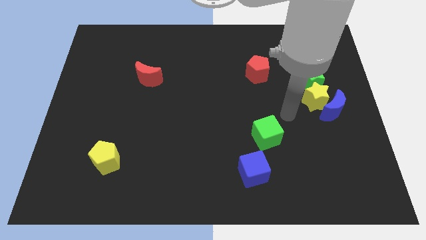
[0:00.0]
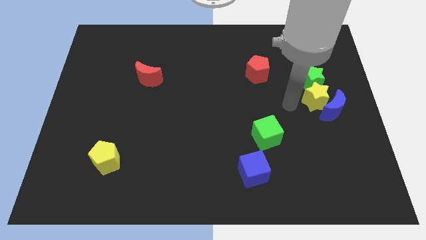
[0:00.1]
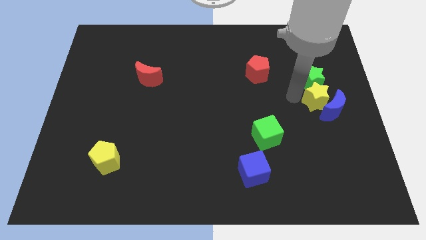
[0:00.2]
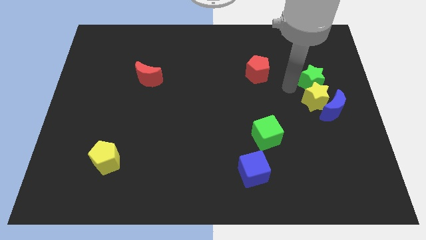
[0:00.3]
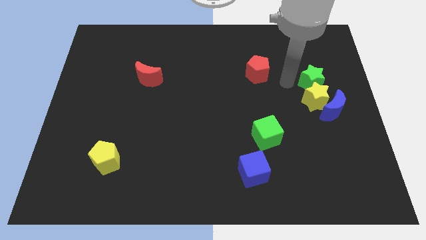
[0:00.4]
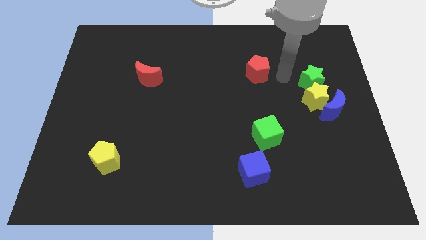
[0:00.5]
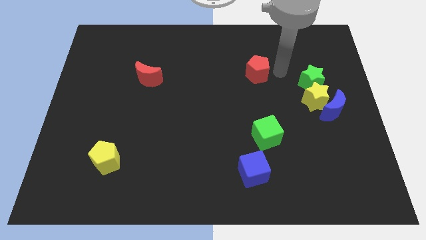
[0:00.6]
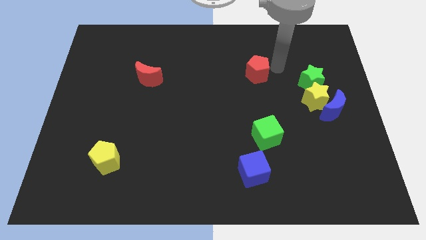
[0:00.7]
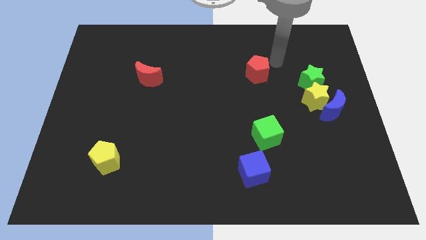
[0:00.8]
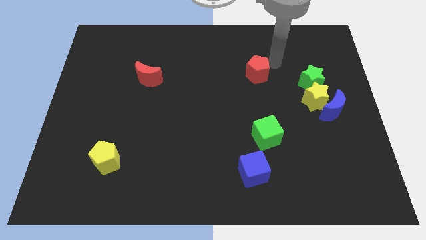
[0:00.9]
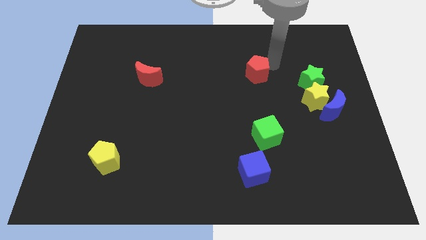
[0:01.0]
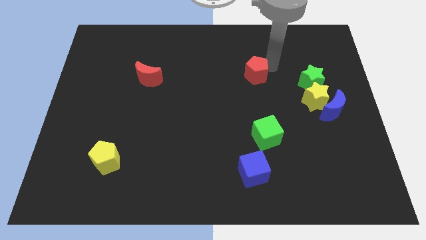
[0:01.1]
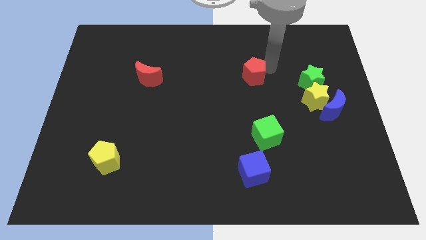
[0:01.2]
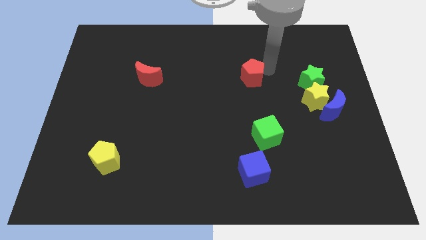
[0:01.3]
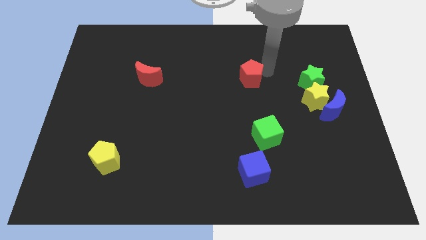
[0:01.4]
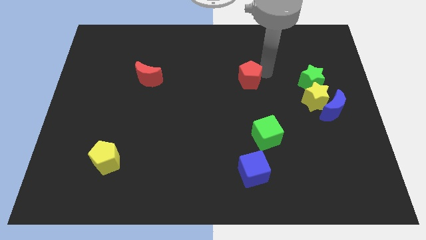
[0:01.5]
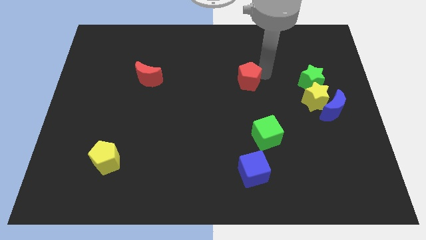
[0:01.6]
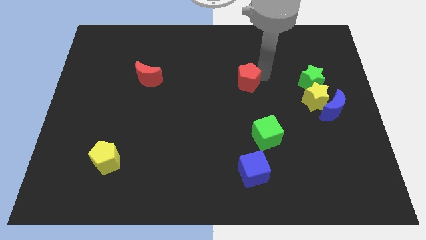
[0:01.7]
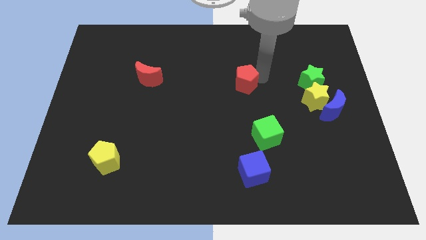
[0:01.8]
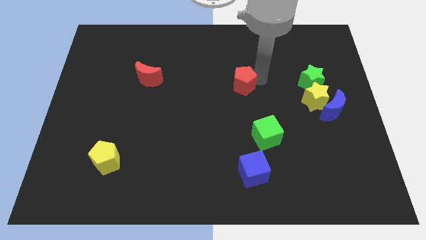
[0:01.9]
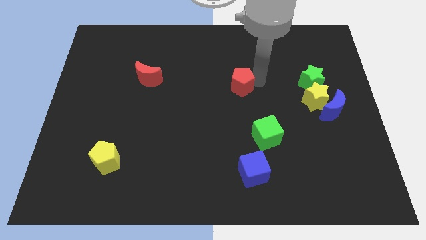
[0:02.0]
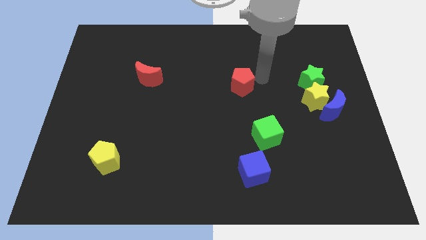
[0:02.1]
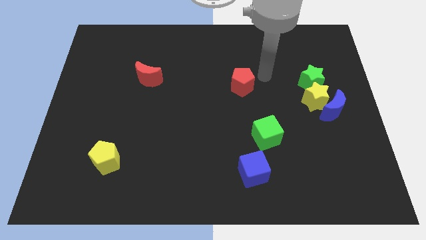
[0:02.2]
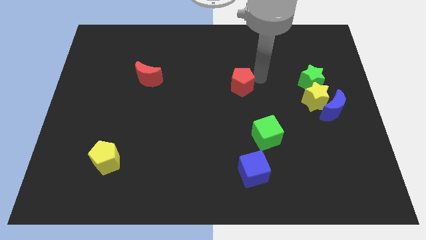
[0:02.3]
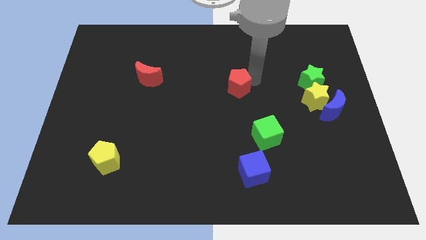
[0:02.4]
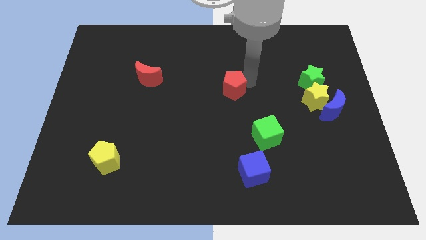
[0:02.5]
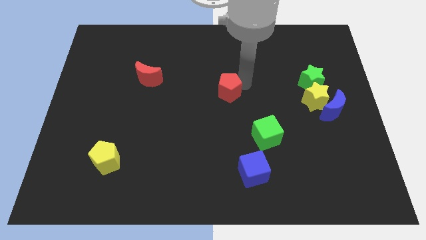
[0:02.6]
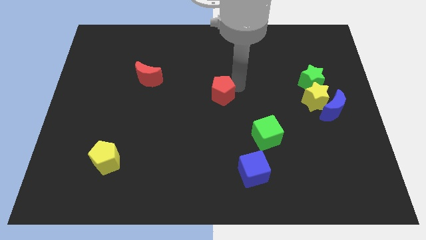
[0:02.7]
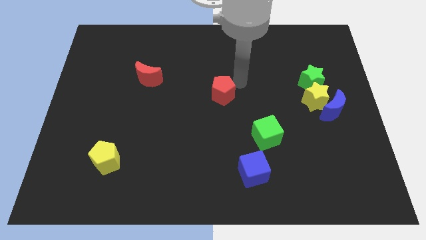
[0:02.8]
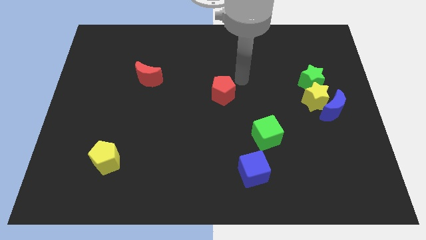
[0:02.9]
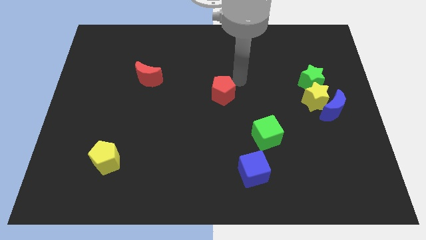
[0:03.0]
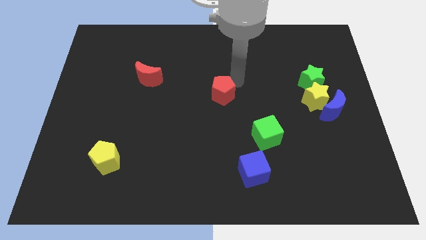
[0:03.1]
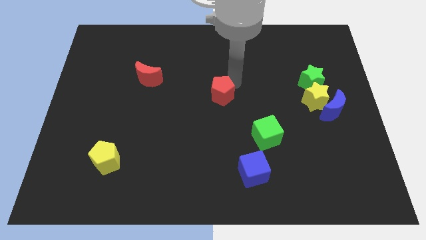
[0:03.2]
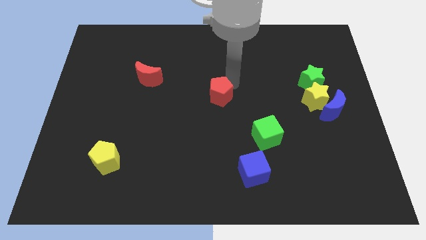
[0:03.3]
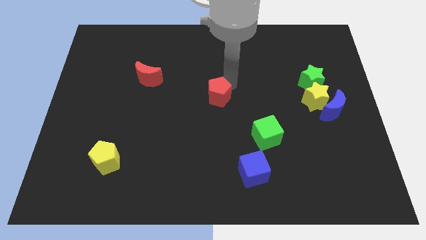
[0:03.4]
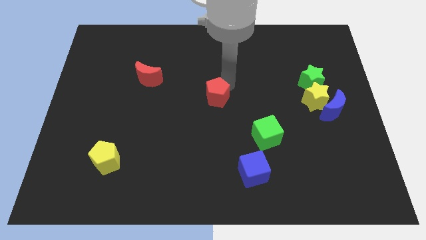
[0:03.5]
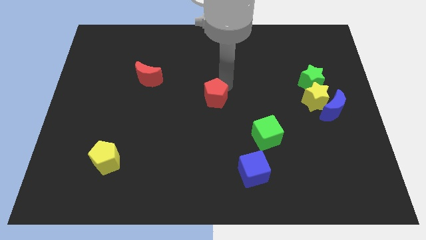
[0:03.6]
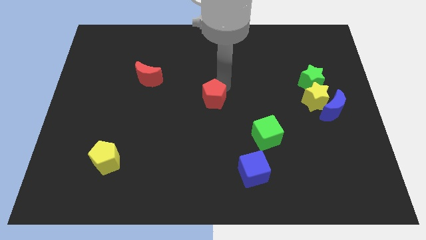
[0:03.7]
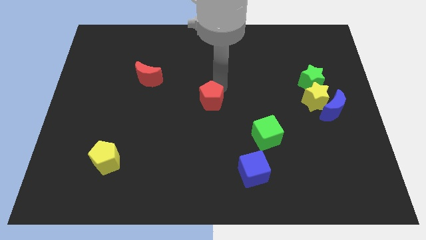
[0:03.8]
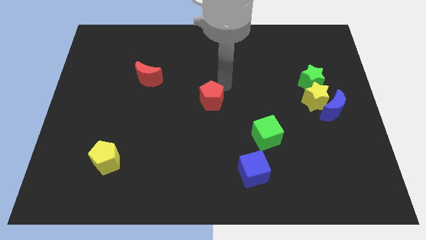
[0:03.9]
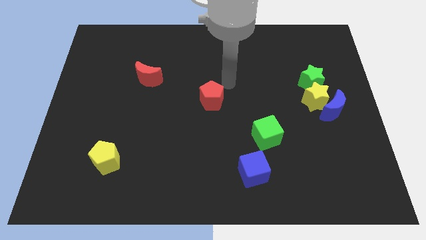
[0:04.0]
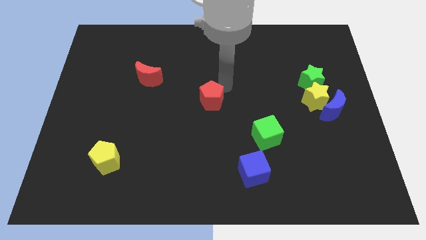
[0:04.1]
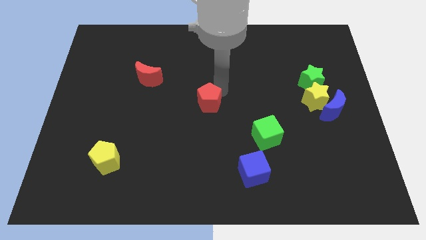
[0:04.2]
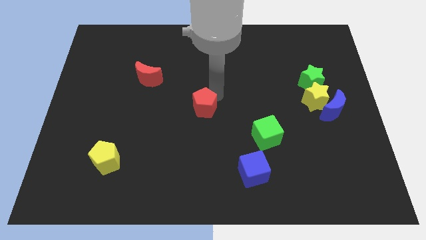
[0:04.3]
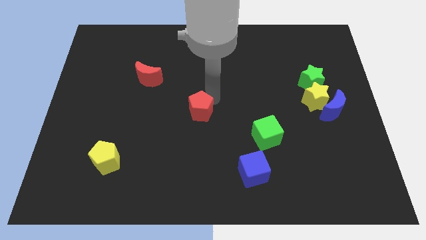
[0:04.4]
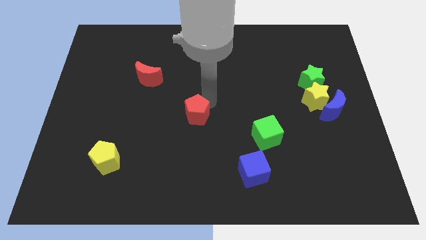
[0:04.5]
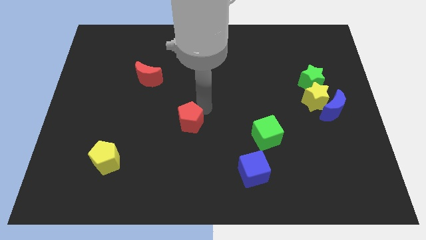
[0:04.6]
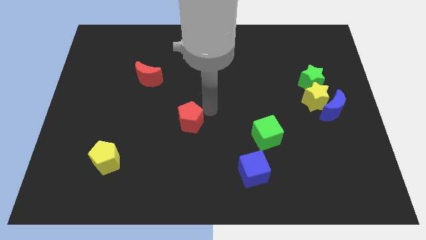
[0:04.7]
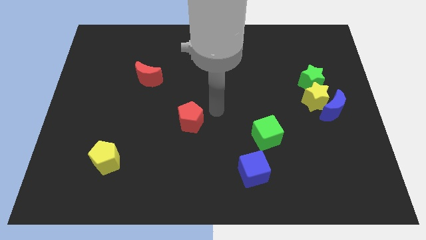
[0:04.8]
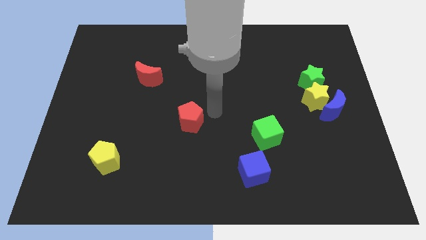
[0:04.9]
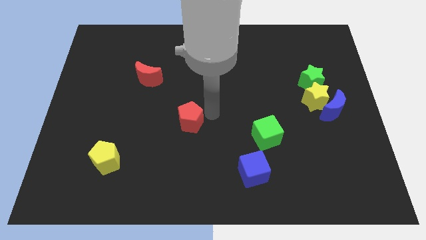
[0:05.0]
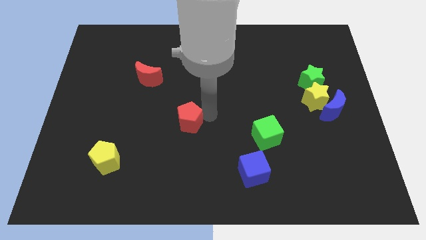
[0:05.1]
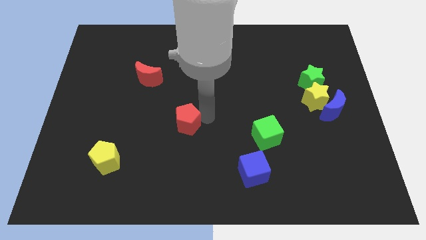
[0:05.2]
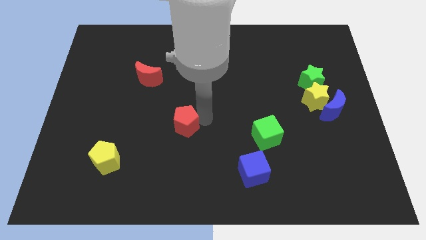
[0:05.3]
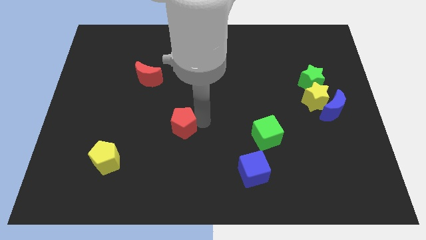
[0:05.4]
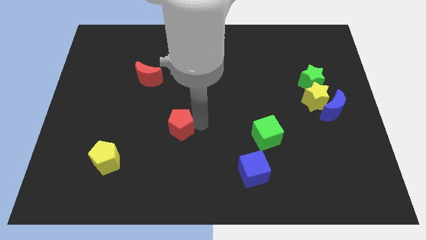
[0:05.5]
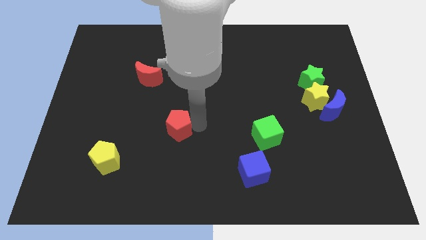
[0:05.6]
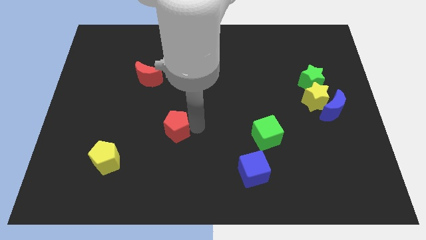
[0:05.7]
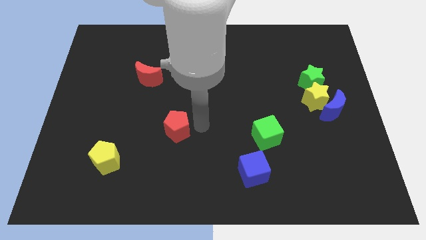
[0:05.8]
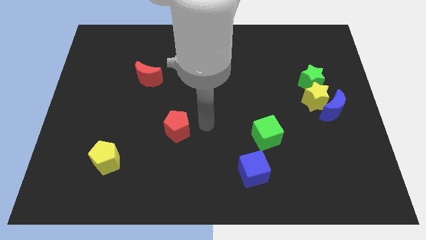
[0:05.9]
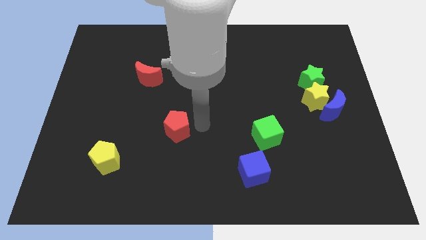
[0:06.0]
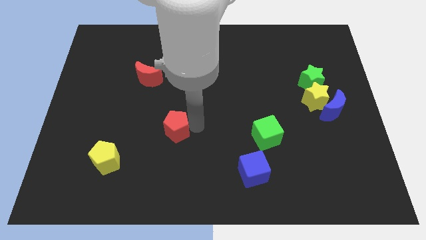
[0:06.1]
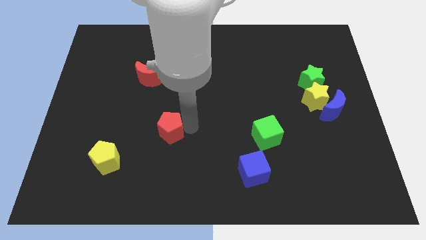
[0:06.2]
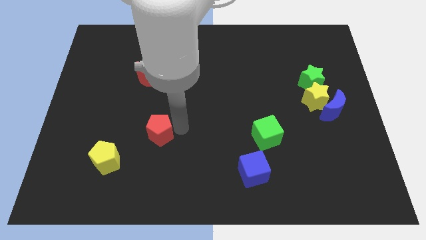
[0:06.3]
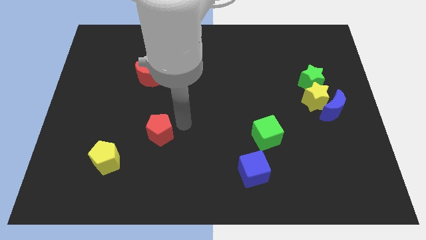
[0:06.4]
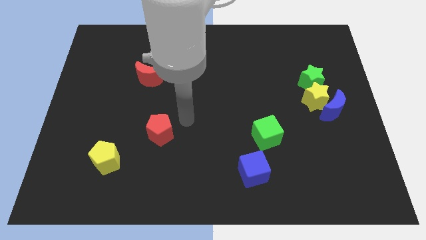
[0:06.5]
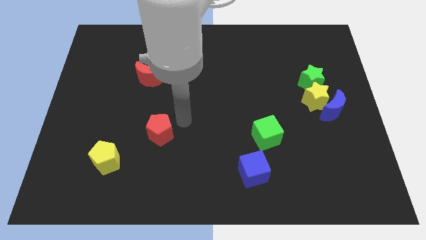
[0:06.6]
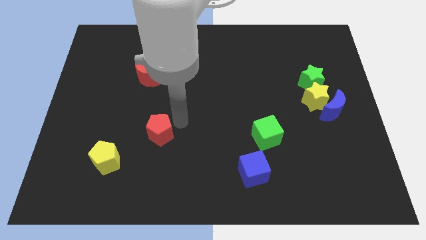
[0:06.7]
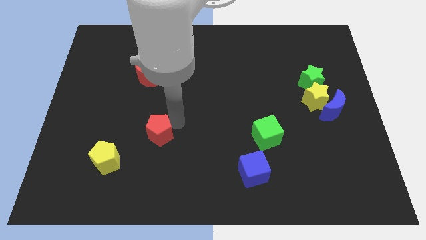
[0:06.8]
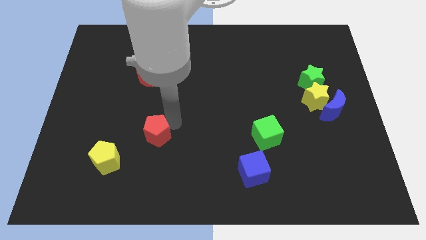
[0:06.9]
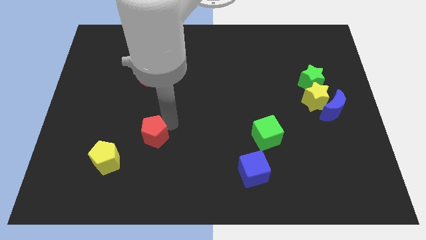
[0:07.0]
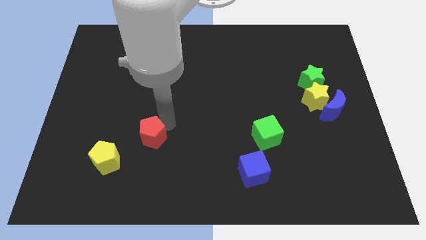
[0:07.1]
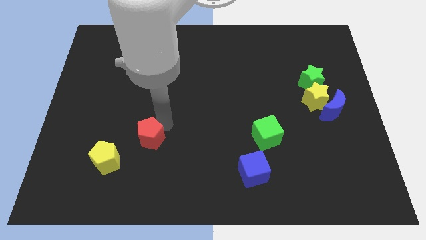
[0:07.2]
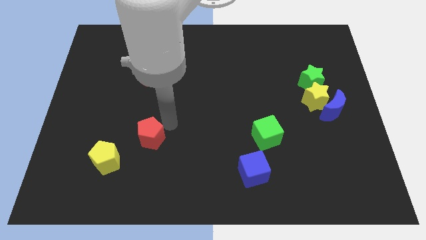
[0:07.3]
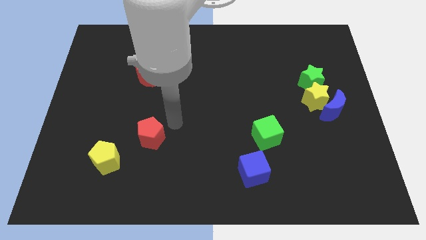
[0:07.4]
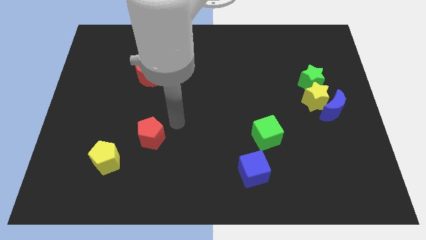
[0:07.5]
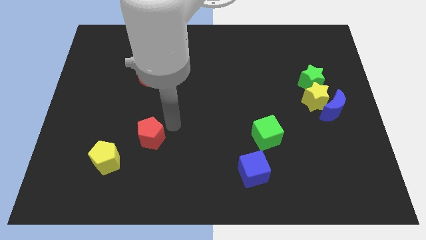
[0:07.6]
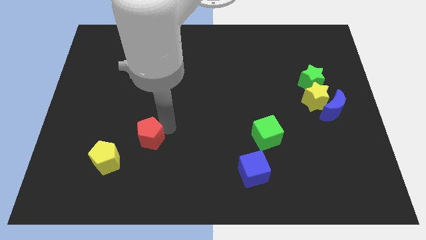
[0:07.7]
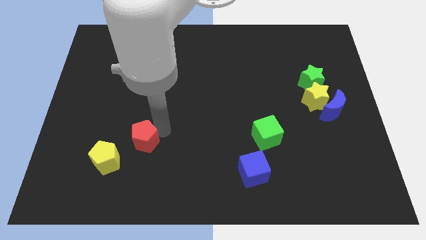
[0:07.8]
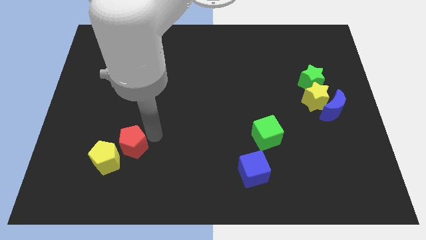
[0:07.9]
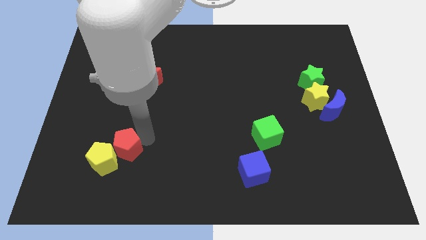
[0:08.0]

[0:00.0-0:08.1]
put the red pentagon towards the yellow pentagon
